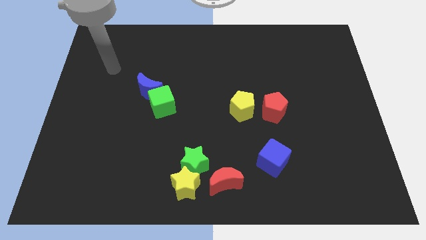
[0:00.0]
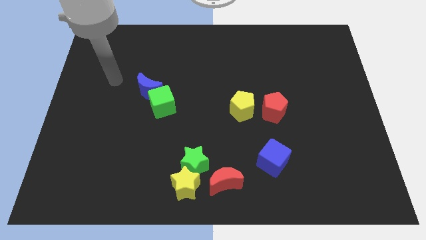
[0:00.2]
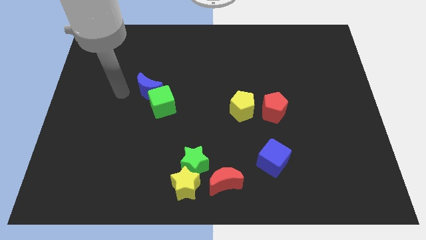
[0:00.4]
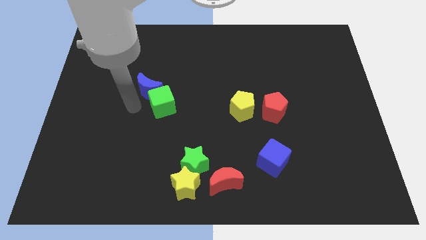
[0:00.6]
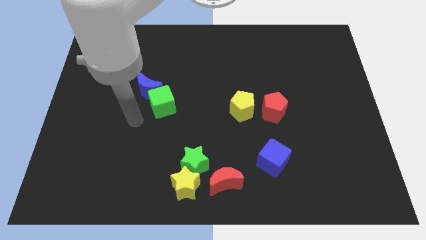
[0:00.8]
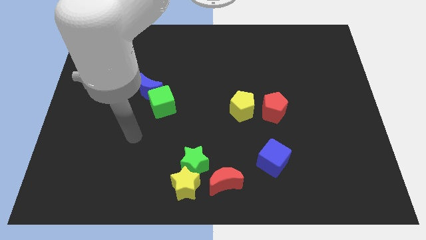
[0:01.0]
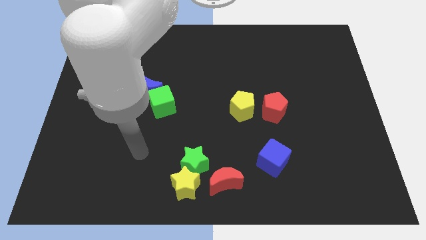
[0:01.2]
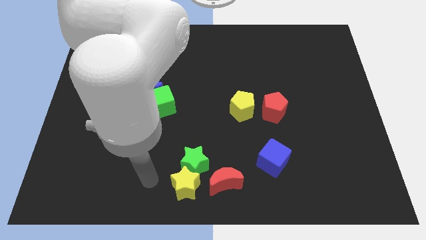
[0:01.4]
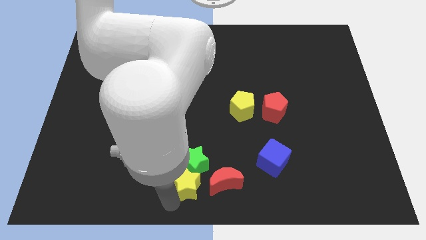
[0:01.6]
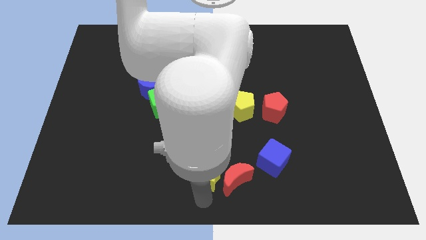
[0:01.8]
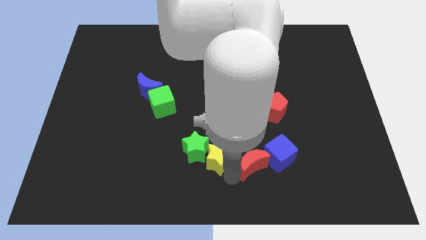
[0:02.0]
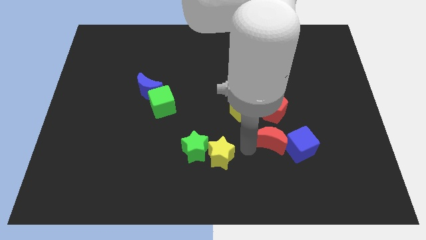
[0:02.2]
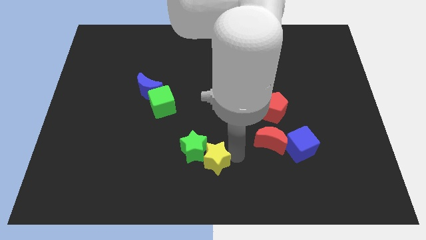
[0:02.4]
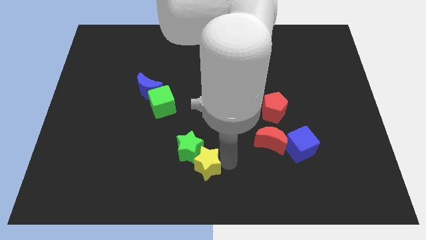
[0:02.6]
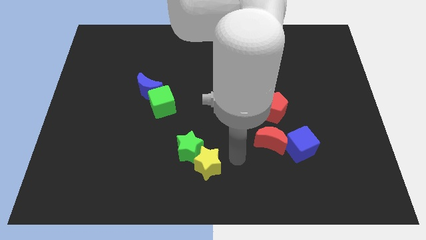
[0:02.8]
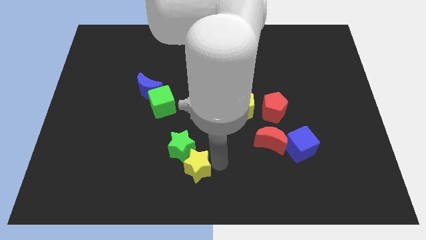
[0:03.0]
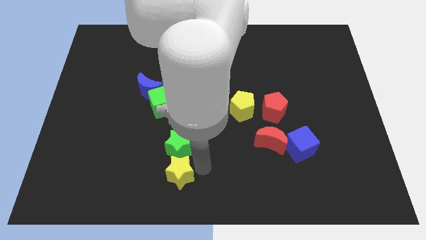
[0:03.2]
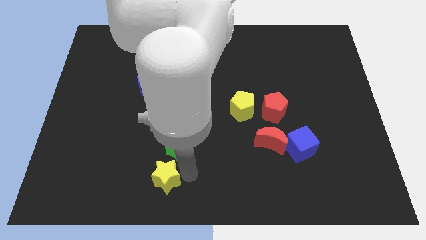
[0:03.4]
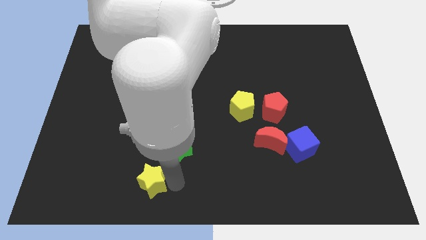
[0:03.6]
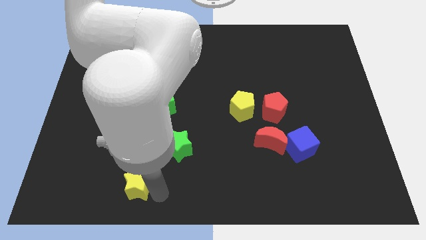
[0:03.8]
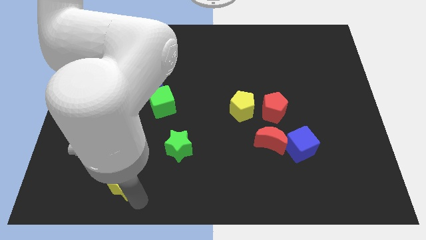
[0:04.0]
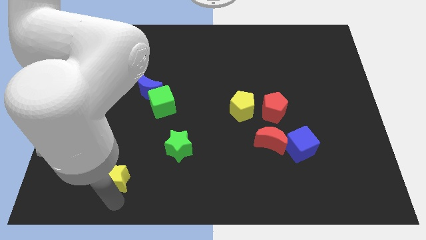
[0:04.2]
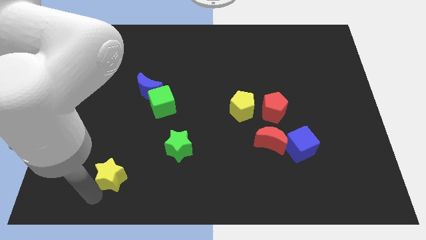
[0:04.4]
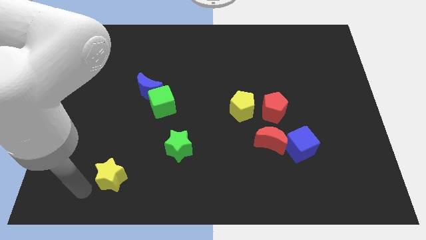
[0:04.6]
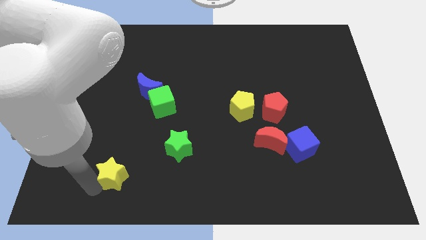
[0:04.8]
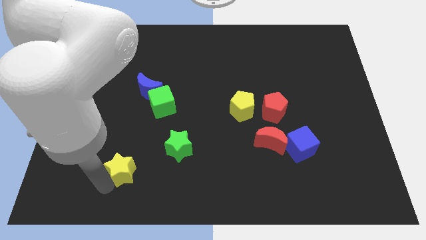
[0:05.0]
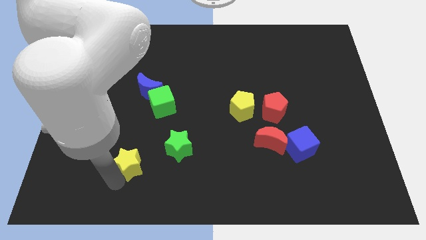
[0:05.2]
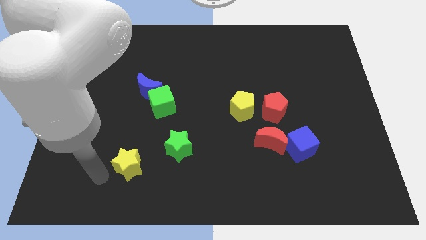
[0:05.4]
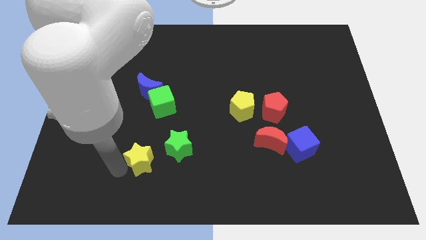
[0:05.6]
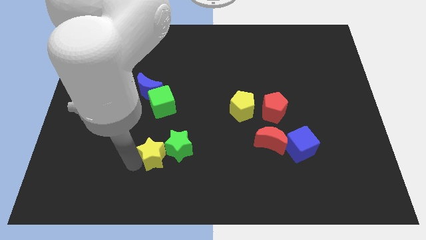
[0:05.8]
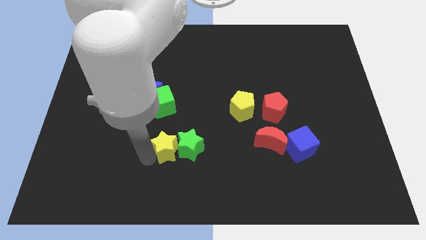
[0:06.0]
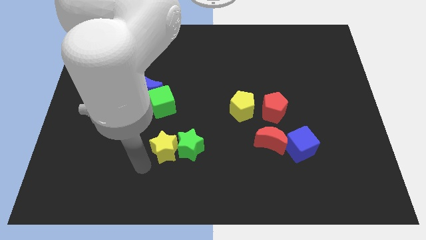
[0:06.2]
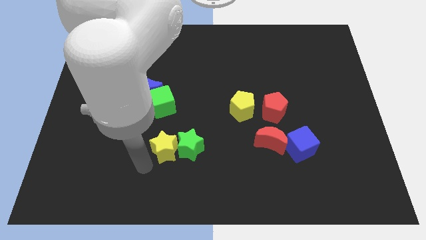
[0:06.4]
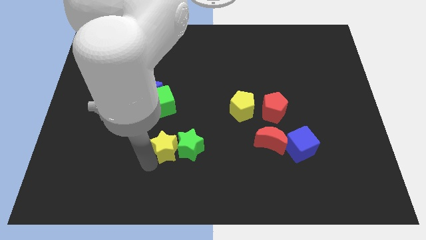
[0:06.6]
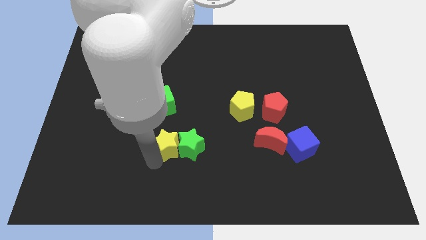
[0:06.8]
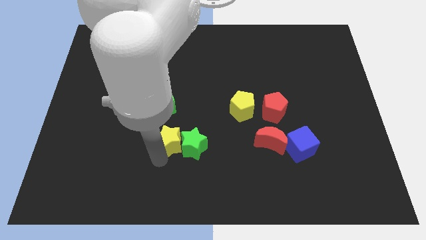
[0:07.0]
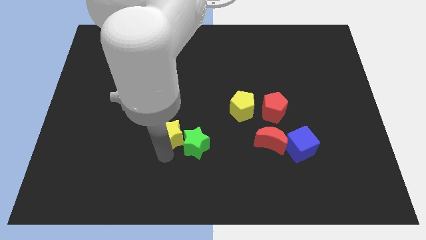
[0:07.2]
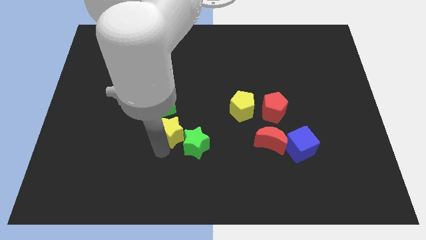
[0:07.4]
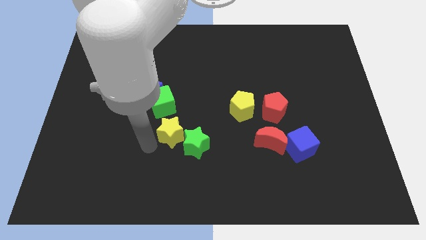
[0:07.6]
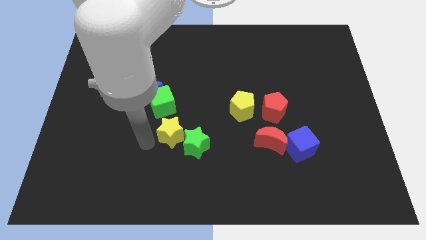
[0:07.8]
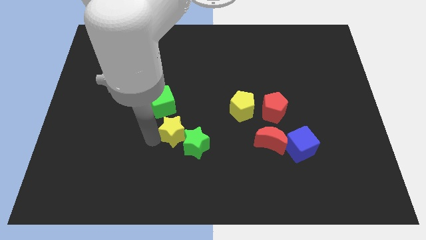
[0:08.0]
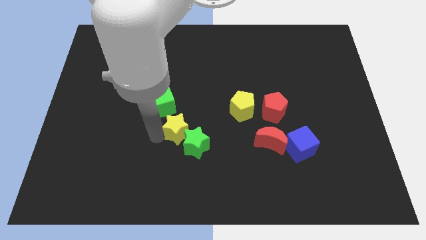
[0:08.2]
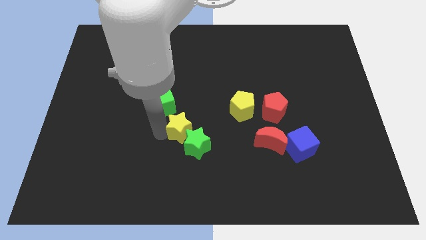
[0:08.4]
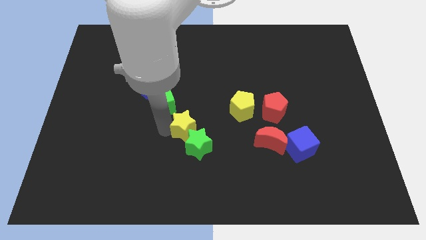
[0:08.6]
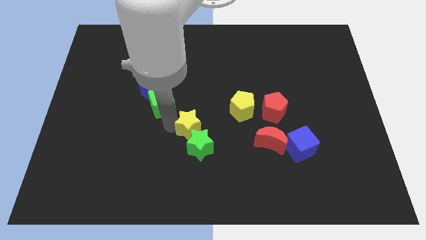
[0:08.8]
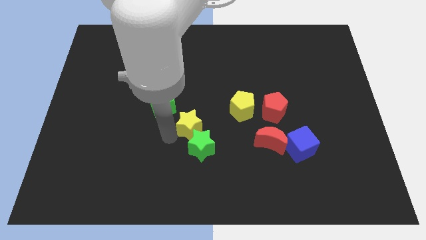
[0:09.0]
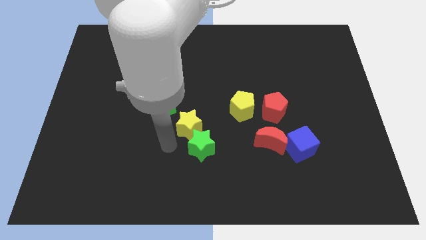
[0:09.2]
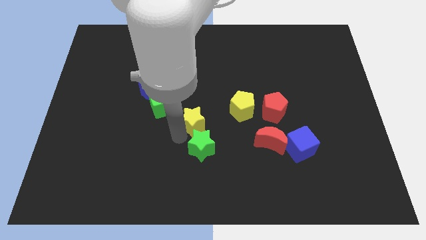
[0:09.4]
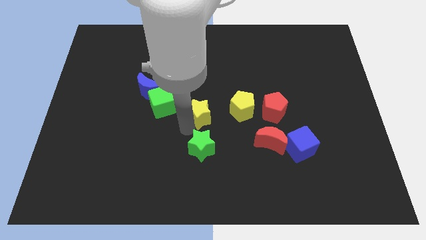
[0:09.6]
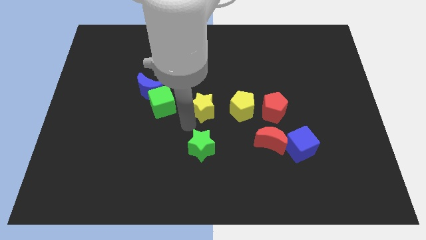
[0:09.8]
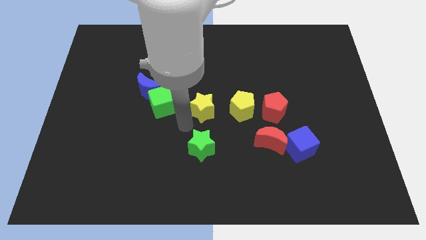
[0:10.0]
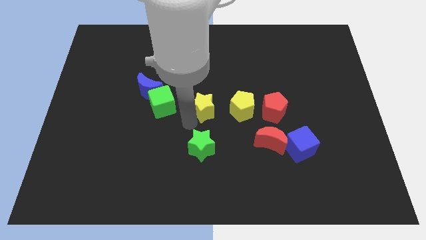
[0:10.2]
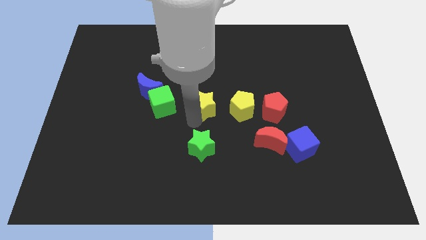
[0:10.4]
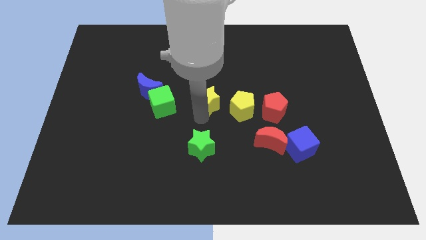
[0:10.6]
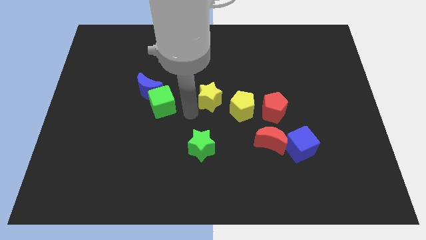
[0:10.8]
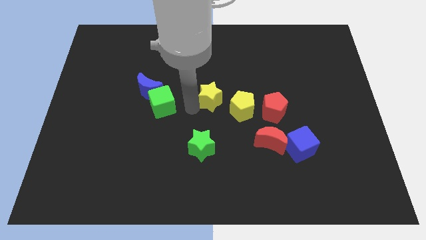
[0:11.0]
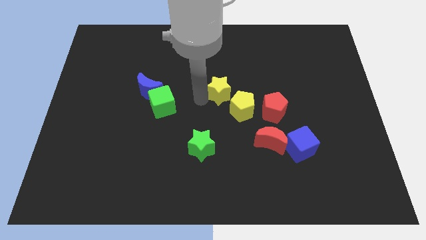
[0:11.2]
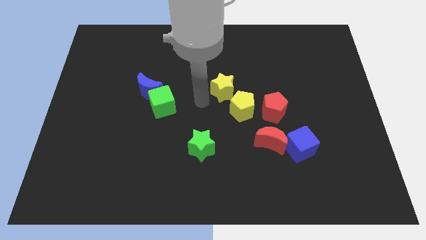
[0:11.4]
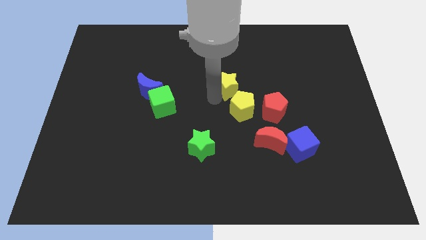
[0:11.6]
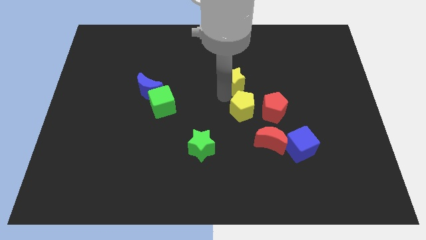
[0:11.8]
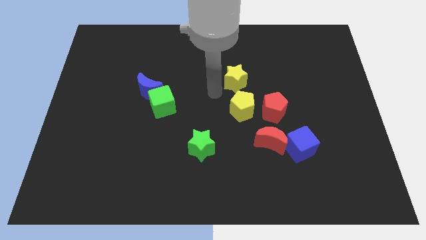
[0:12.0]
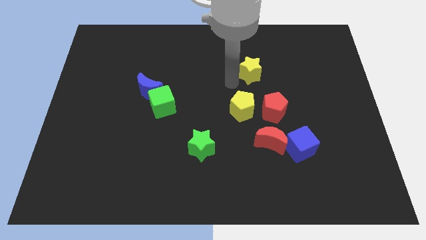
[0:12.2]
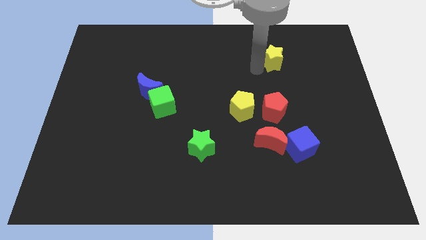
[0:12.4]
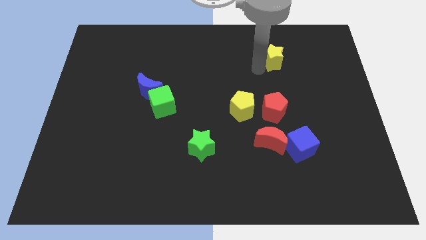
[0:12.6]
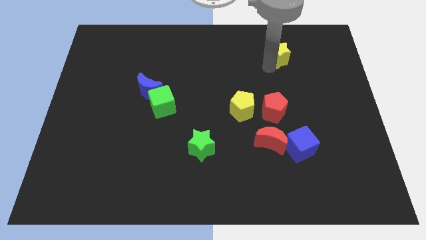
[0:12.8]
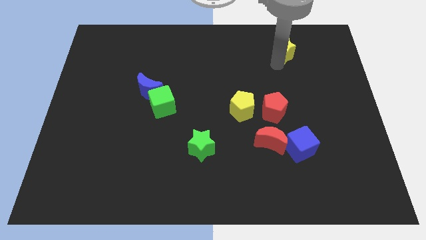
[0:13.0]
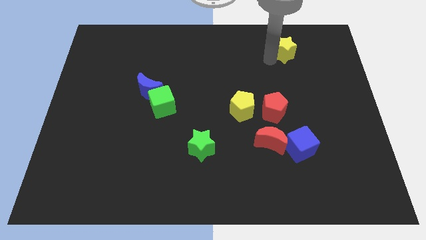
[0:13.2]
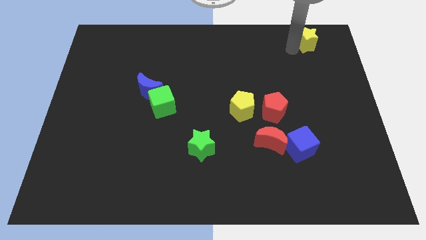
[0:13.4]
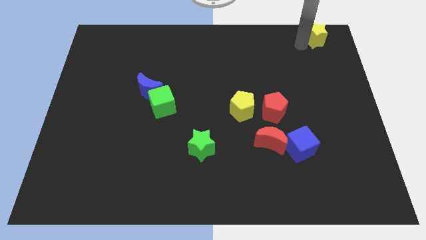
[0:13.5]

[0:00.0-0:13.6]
put the yellow star to the upper right corner
